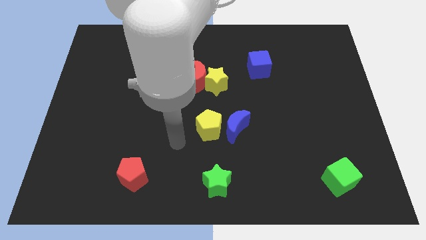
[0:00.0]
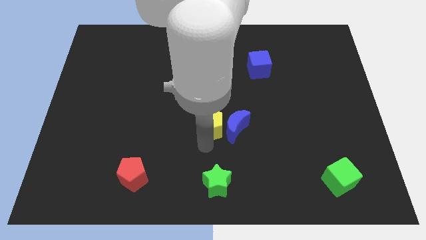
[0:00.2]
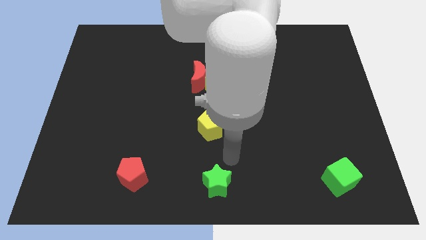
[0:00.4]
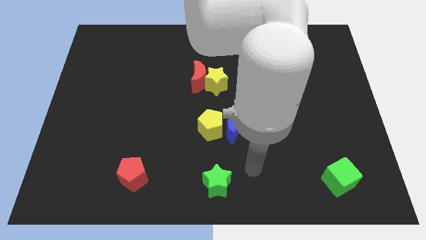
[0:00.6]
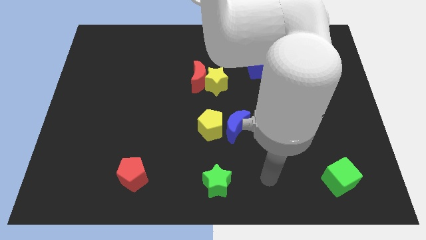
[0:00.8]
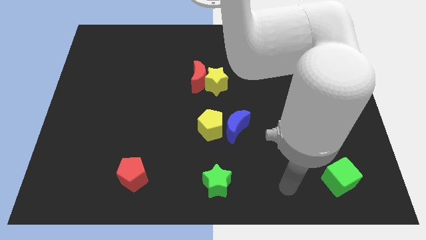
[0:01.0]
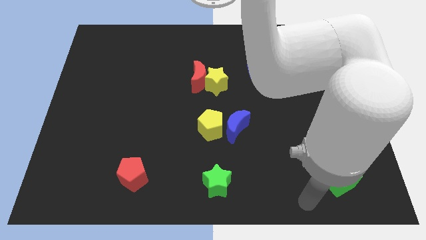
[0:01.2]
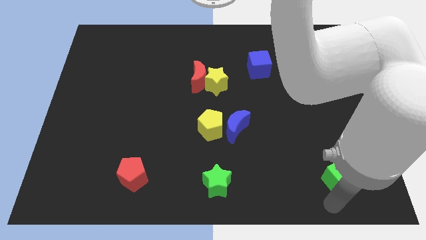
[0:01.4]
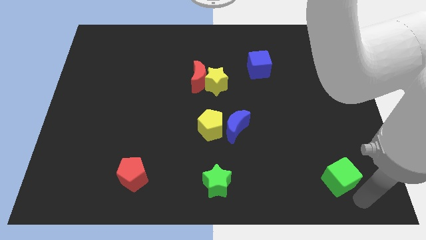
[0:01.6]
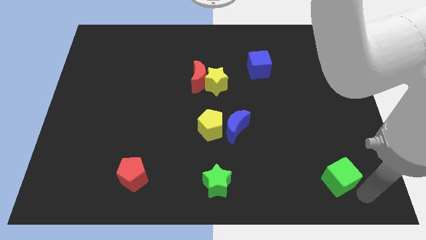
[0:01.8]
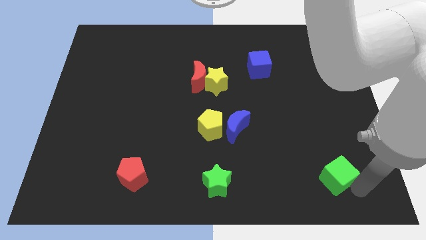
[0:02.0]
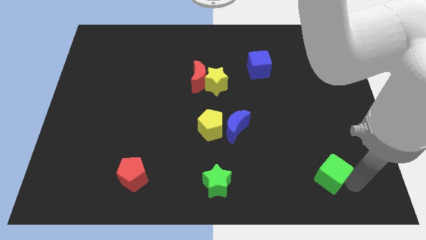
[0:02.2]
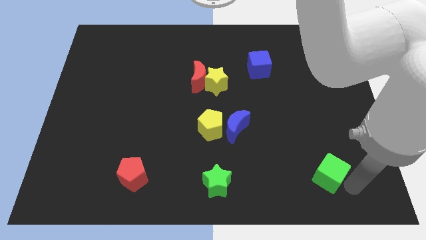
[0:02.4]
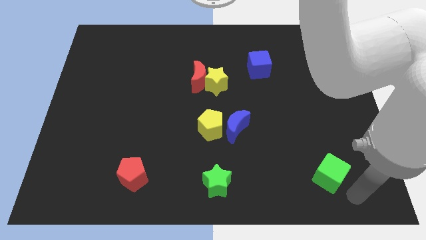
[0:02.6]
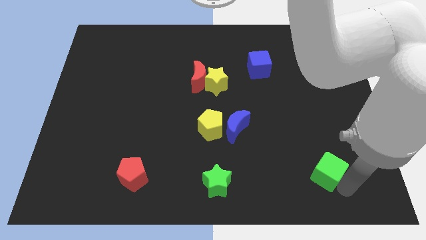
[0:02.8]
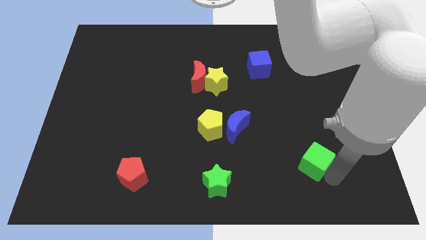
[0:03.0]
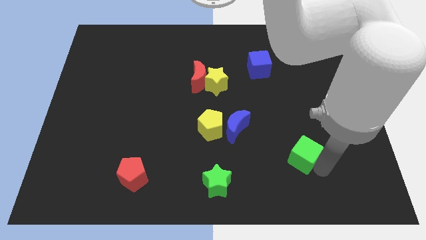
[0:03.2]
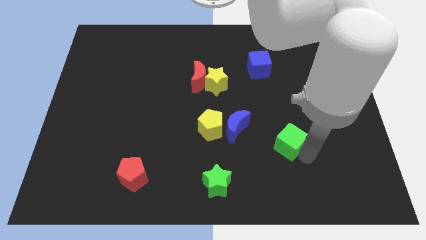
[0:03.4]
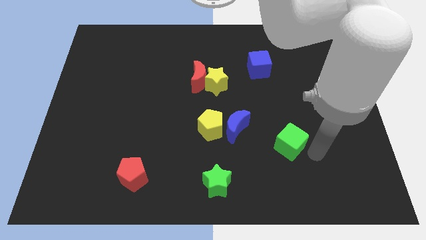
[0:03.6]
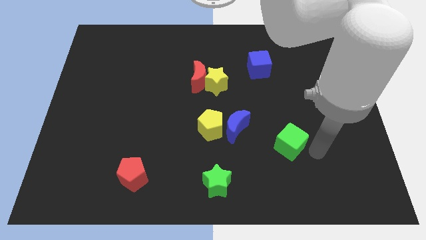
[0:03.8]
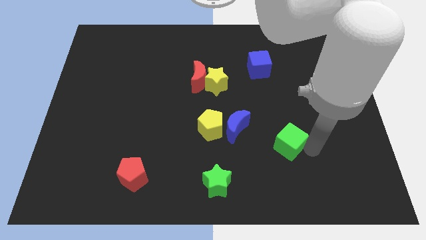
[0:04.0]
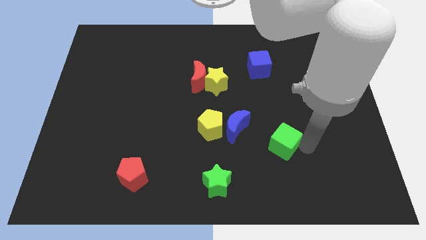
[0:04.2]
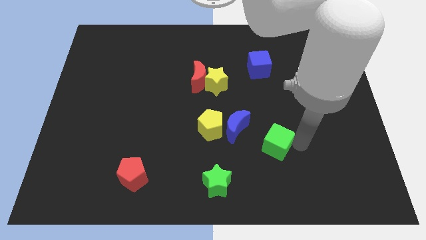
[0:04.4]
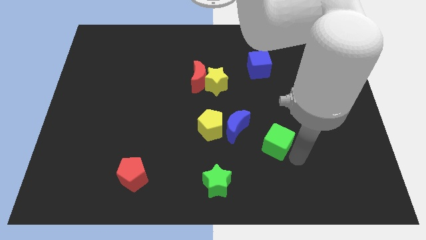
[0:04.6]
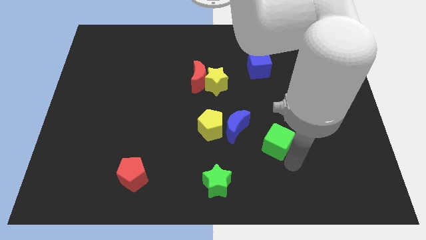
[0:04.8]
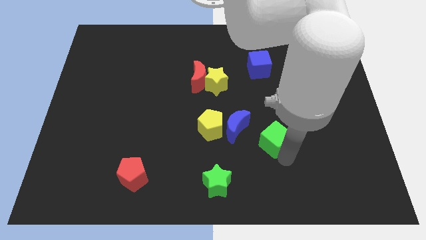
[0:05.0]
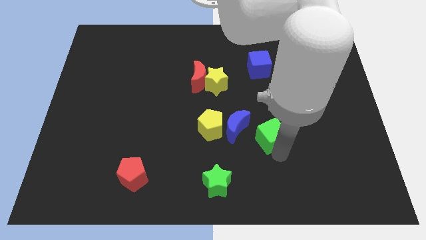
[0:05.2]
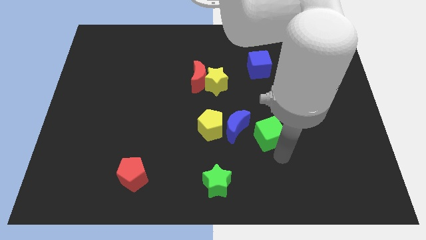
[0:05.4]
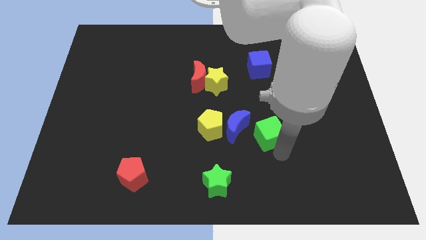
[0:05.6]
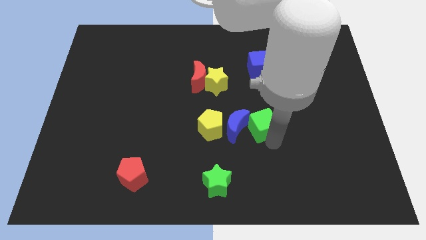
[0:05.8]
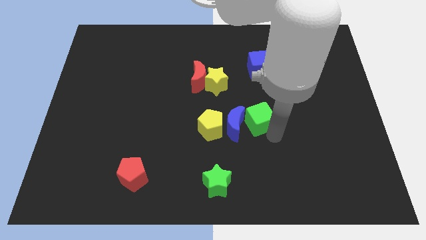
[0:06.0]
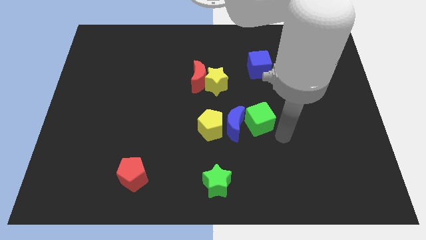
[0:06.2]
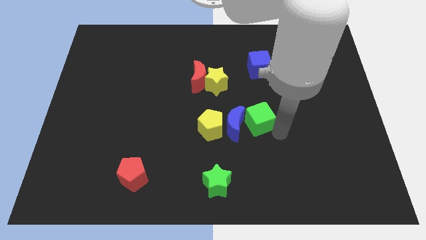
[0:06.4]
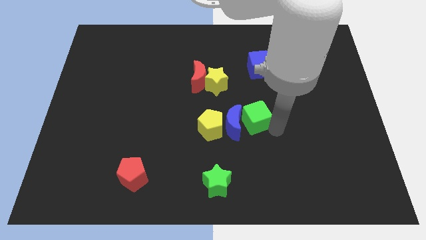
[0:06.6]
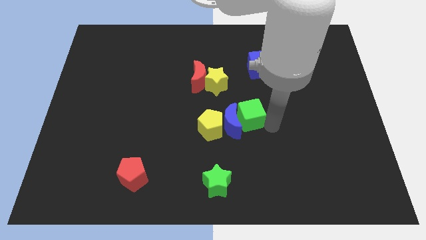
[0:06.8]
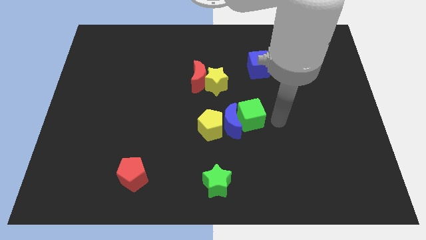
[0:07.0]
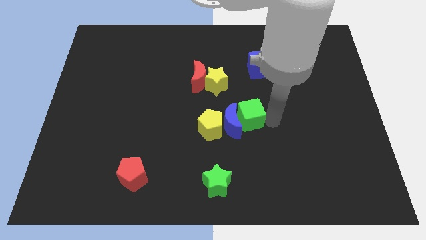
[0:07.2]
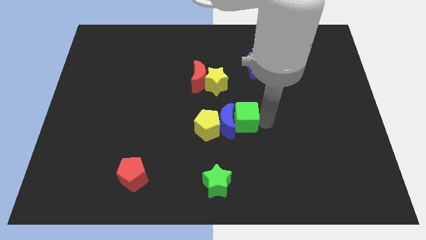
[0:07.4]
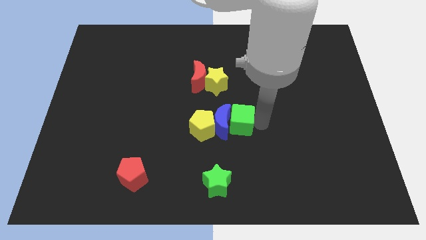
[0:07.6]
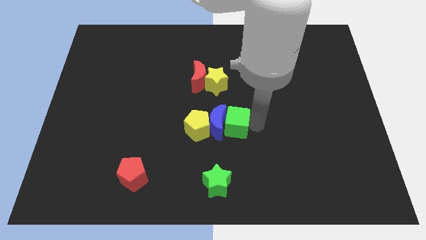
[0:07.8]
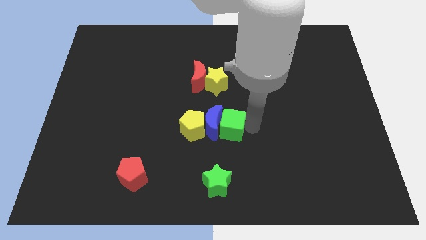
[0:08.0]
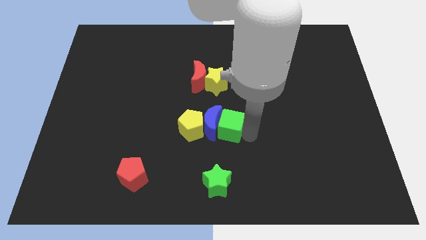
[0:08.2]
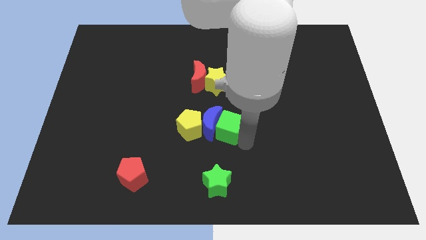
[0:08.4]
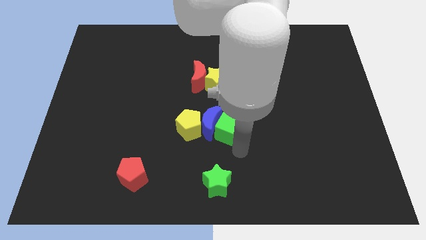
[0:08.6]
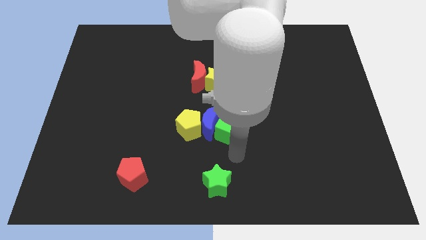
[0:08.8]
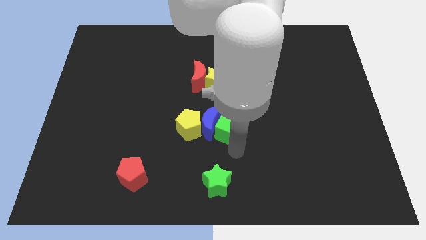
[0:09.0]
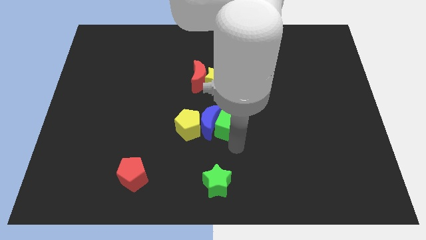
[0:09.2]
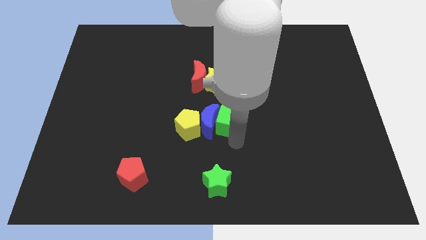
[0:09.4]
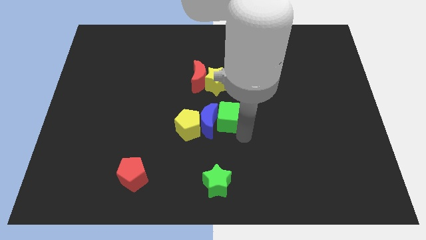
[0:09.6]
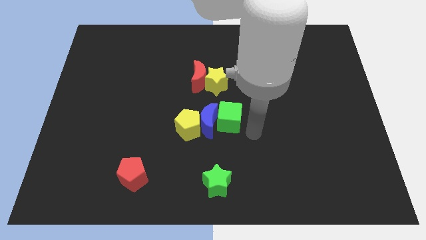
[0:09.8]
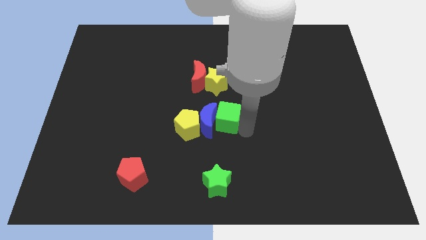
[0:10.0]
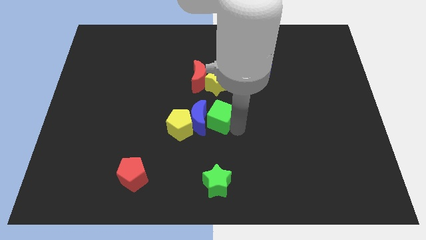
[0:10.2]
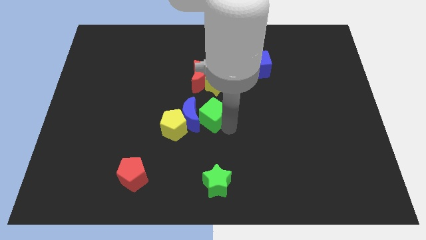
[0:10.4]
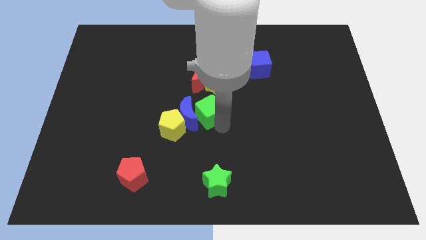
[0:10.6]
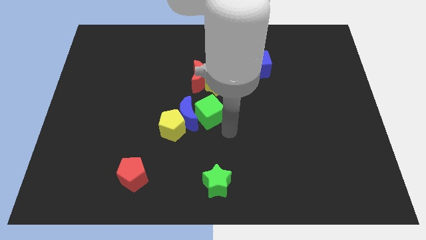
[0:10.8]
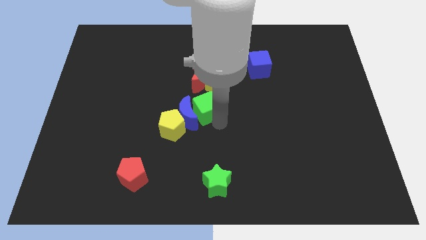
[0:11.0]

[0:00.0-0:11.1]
slide the green cube diagonally down and to the left of the yellow star
